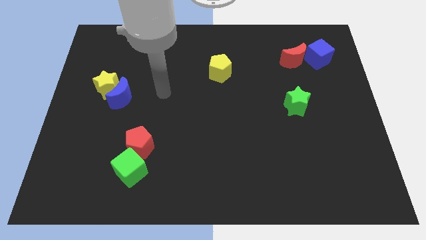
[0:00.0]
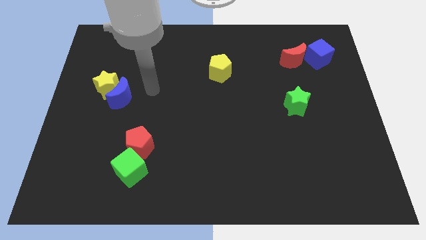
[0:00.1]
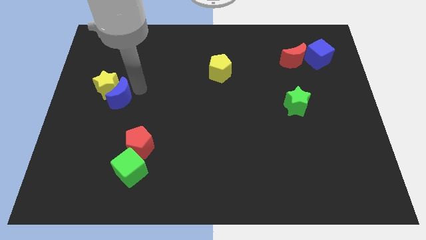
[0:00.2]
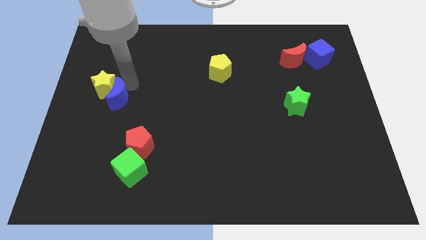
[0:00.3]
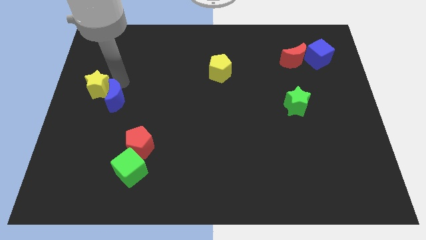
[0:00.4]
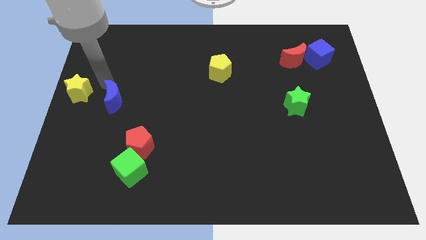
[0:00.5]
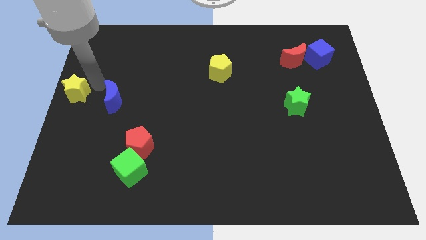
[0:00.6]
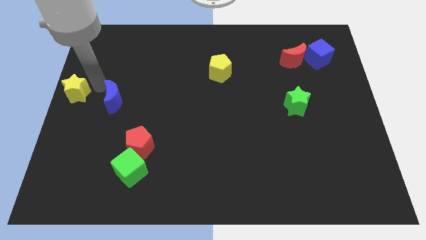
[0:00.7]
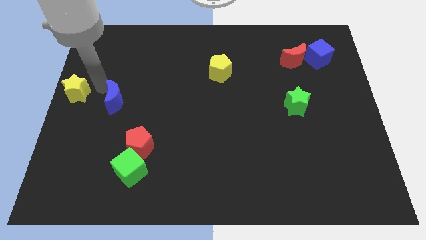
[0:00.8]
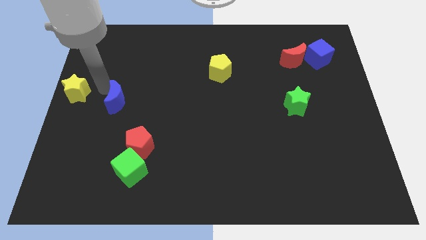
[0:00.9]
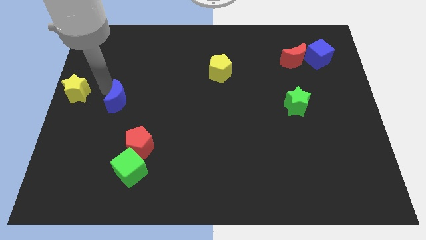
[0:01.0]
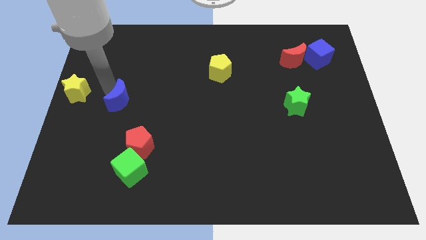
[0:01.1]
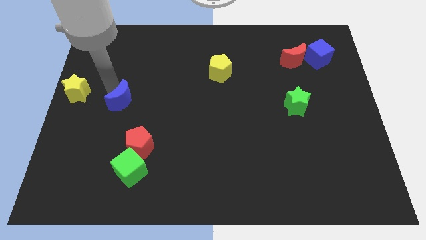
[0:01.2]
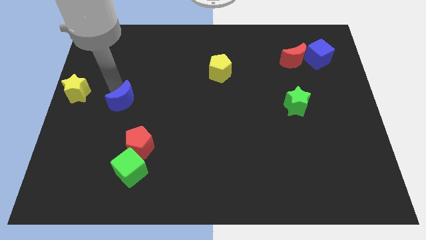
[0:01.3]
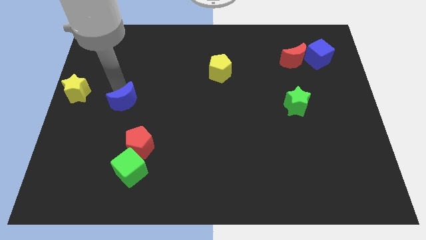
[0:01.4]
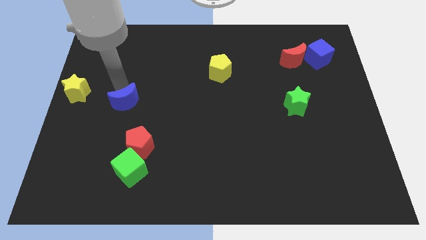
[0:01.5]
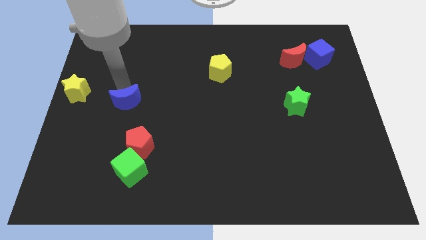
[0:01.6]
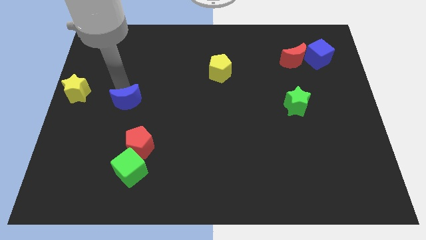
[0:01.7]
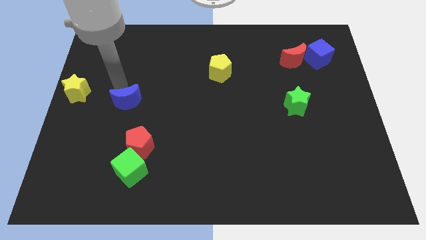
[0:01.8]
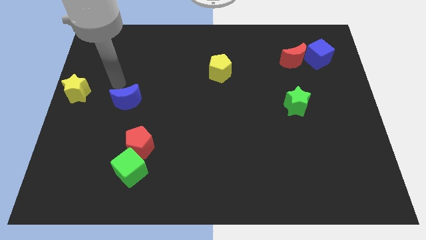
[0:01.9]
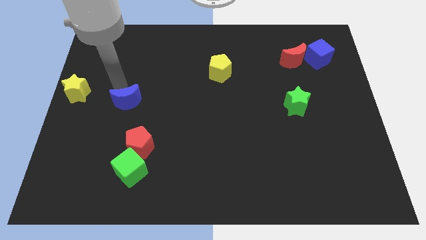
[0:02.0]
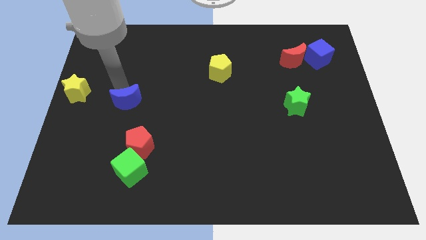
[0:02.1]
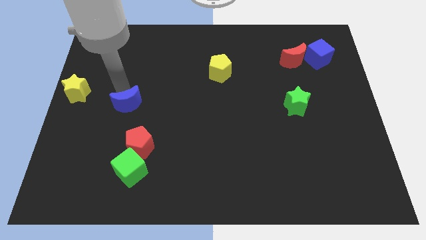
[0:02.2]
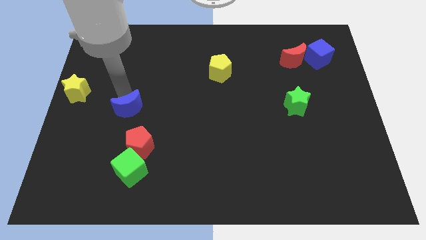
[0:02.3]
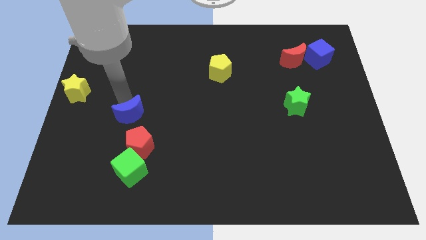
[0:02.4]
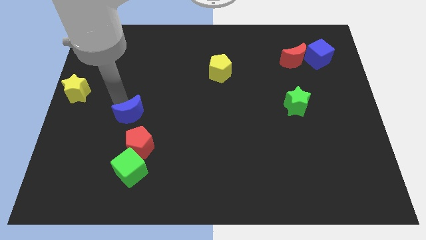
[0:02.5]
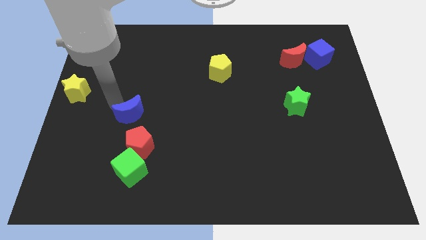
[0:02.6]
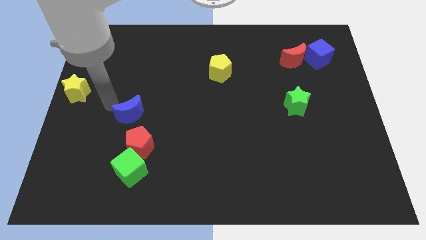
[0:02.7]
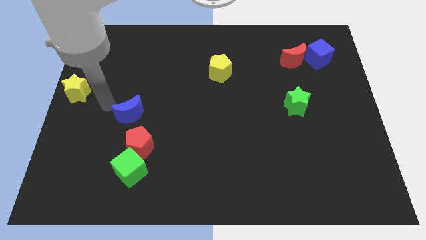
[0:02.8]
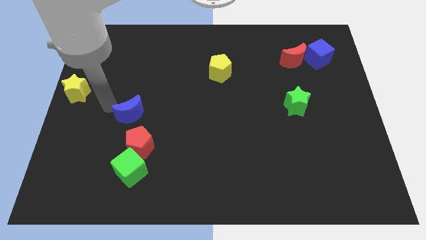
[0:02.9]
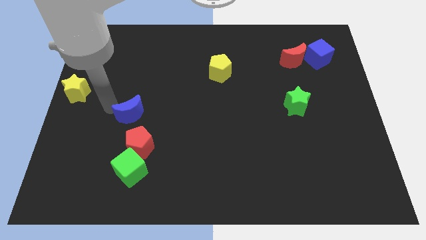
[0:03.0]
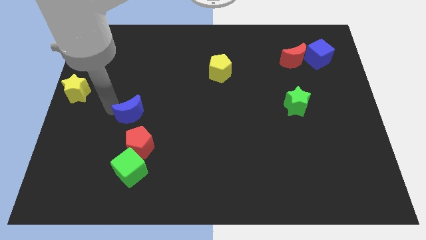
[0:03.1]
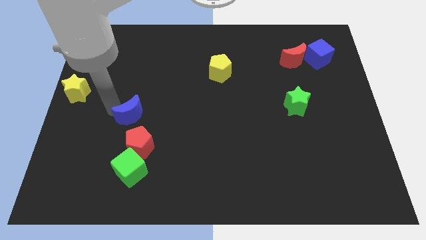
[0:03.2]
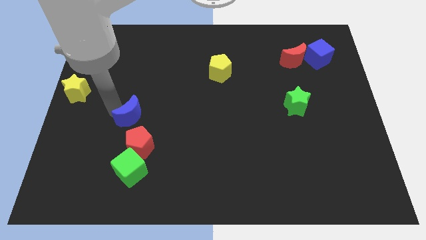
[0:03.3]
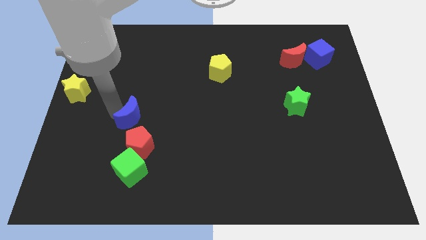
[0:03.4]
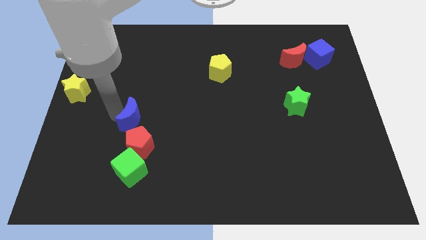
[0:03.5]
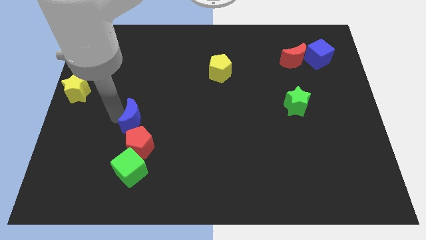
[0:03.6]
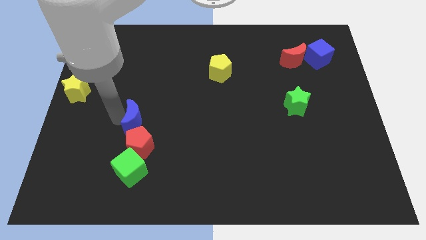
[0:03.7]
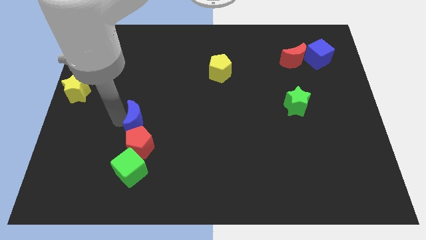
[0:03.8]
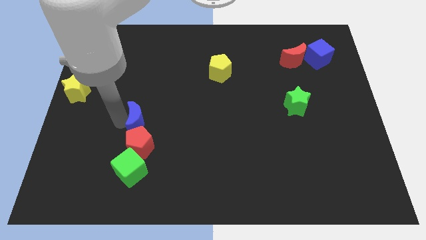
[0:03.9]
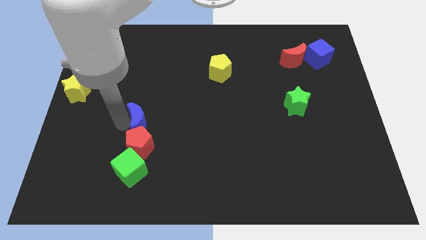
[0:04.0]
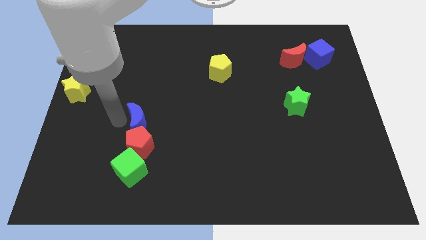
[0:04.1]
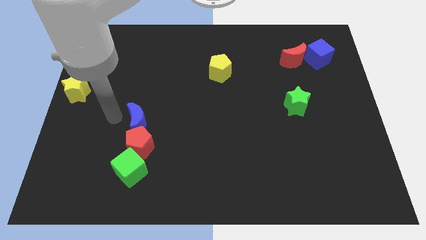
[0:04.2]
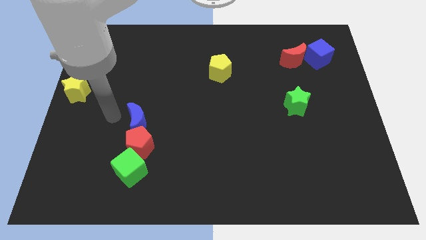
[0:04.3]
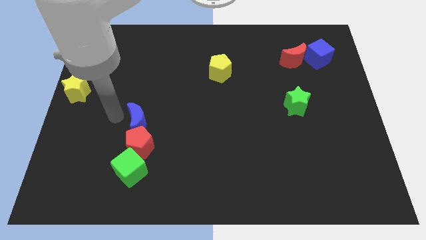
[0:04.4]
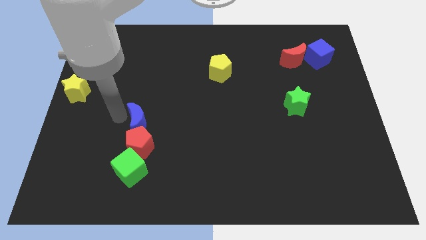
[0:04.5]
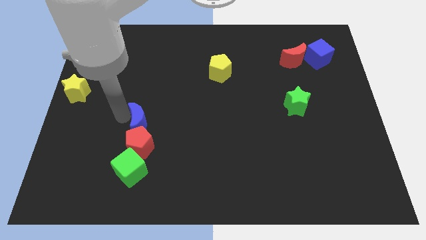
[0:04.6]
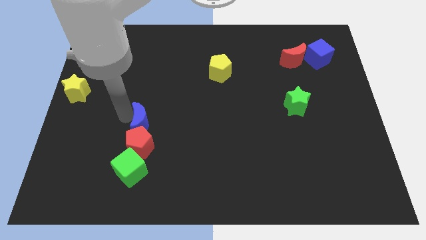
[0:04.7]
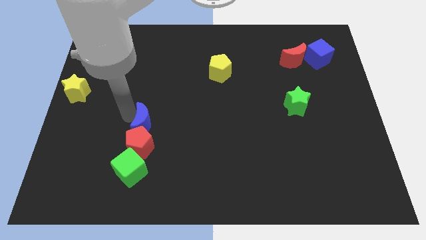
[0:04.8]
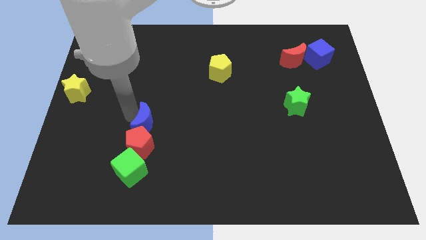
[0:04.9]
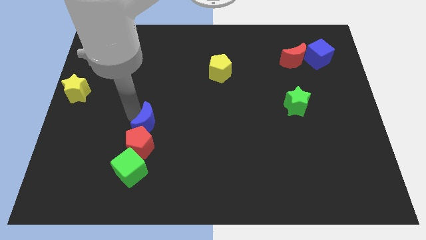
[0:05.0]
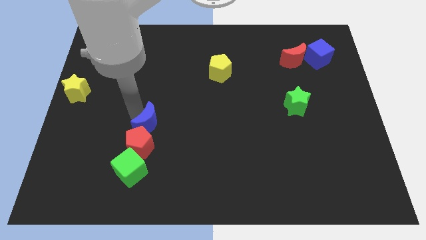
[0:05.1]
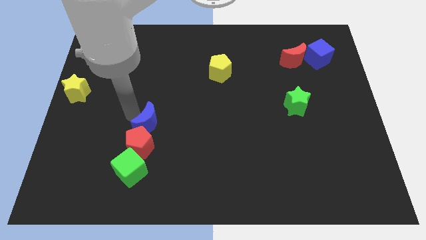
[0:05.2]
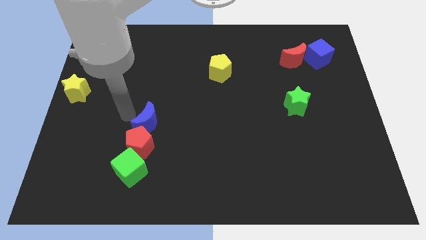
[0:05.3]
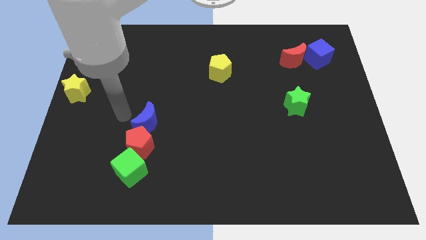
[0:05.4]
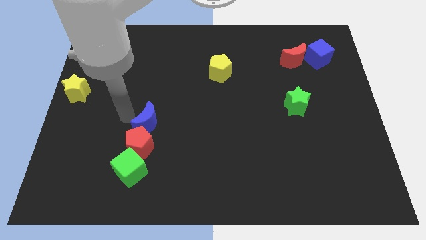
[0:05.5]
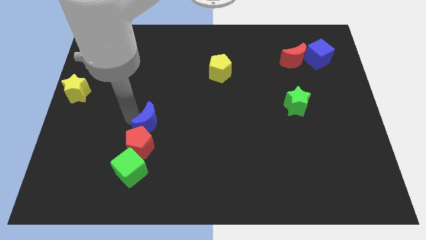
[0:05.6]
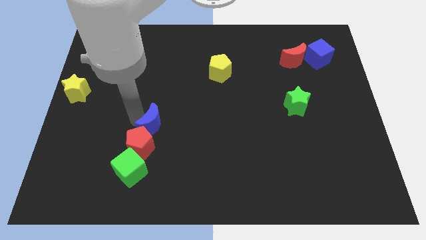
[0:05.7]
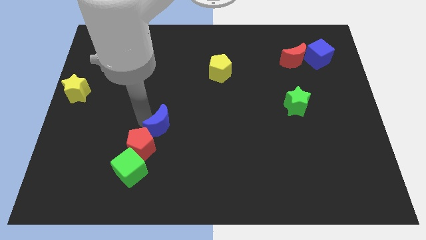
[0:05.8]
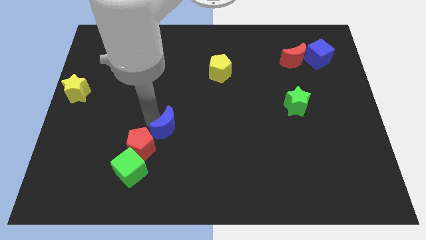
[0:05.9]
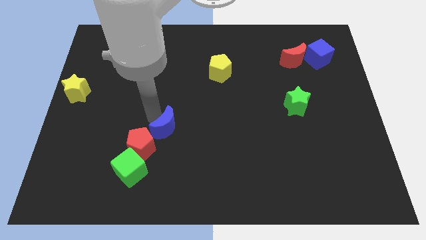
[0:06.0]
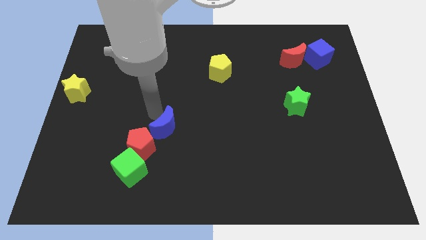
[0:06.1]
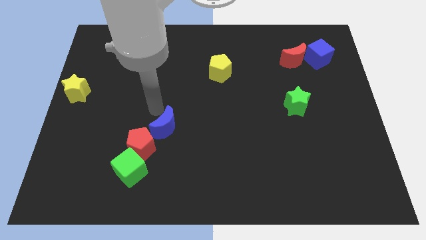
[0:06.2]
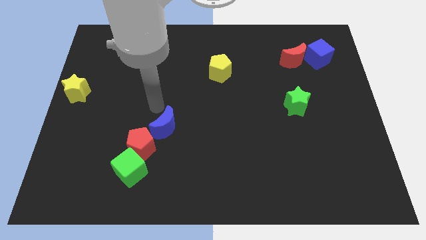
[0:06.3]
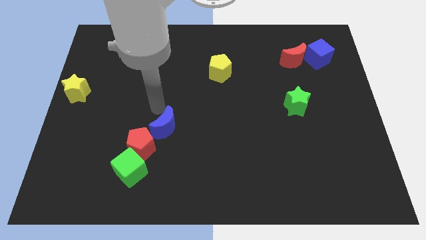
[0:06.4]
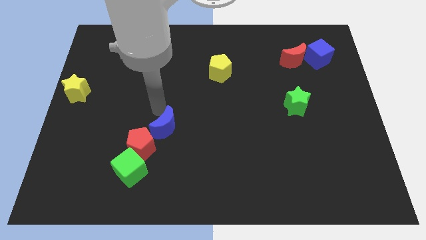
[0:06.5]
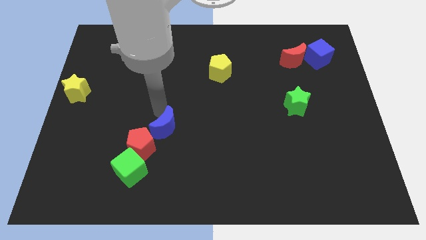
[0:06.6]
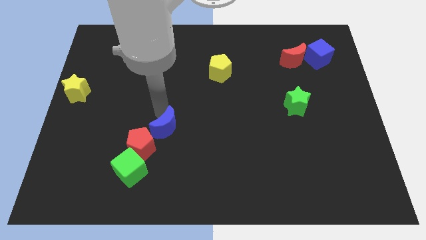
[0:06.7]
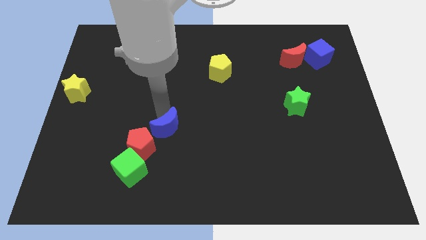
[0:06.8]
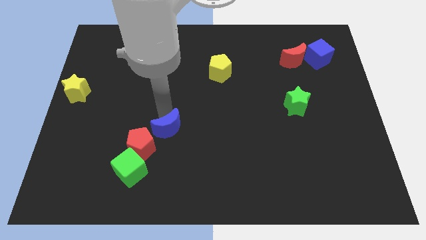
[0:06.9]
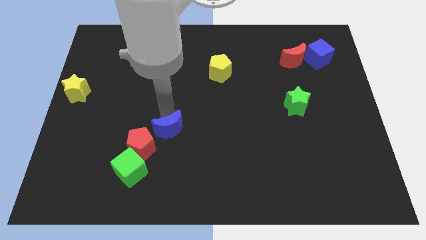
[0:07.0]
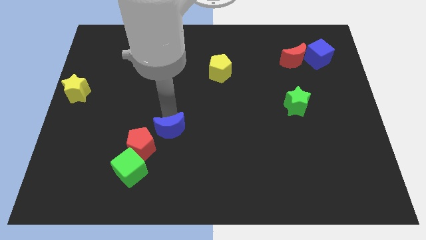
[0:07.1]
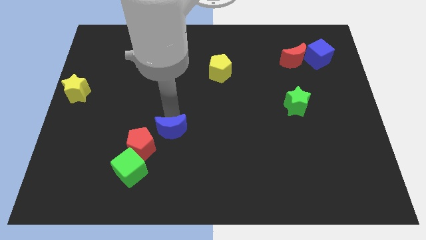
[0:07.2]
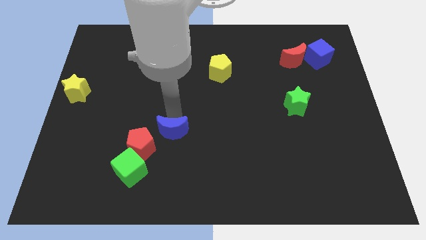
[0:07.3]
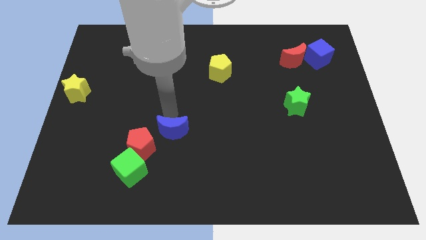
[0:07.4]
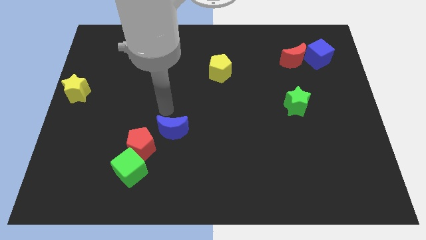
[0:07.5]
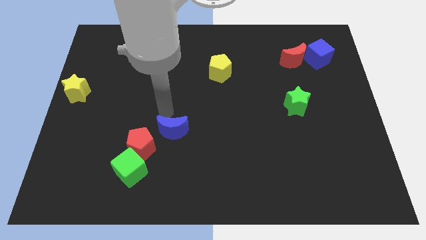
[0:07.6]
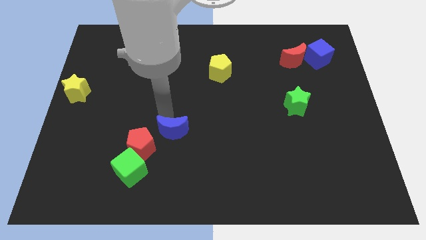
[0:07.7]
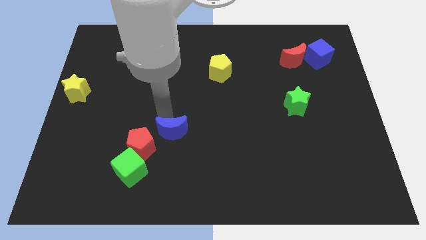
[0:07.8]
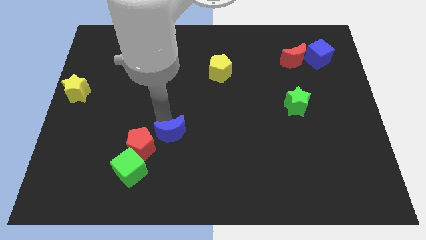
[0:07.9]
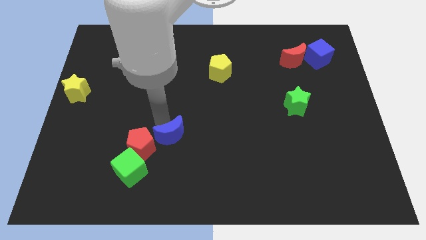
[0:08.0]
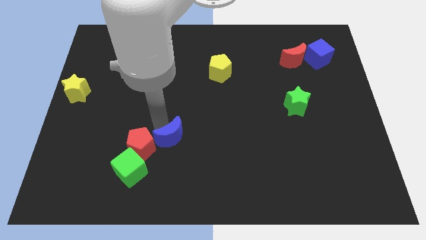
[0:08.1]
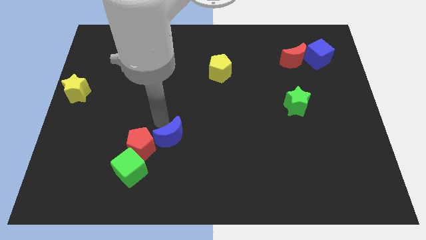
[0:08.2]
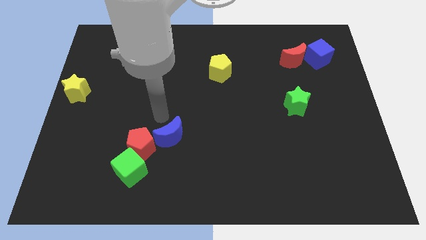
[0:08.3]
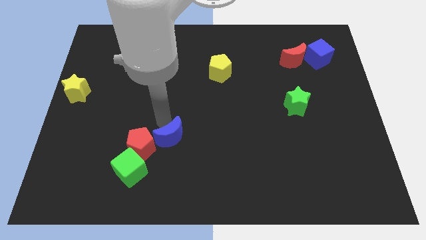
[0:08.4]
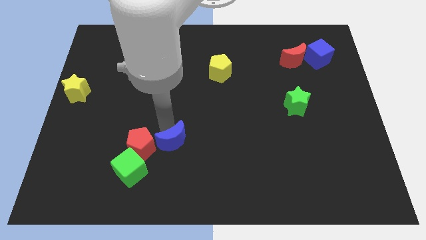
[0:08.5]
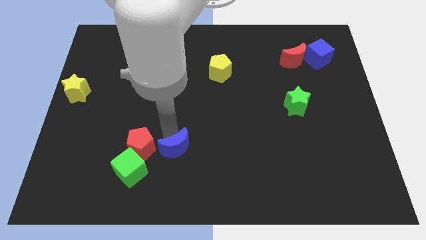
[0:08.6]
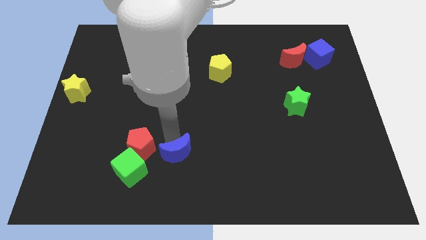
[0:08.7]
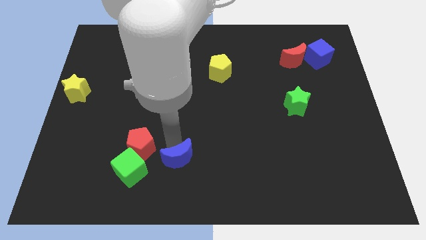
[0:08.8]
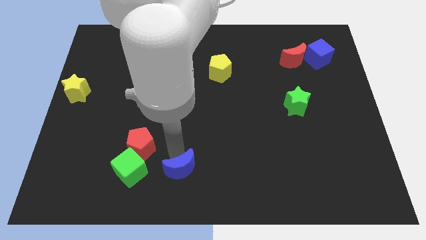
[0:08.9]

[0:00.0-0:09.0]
move the blue moon to the bottom side
